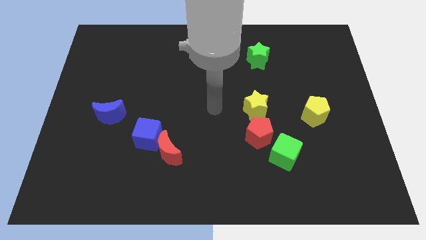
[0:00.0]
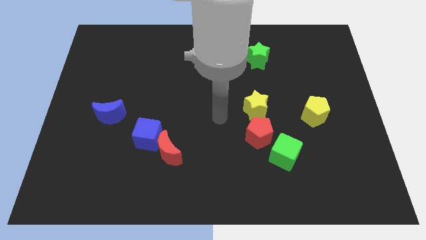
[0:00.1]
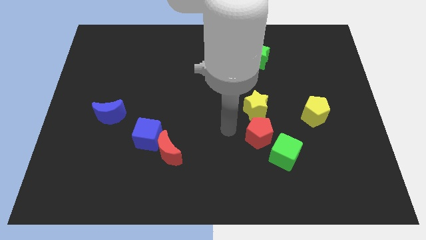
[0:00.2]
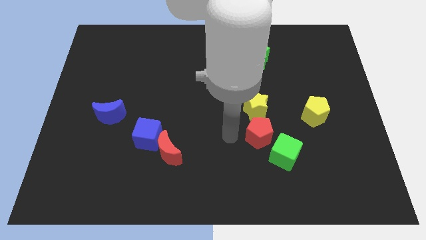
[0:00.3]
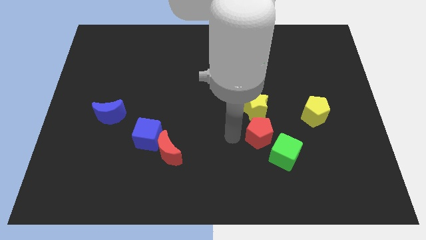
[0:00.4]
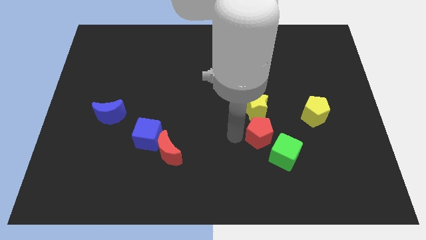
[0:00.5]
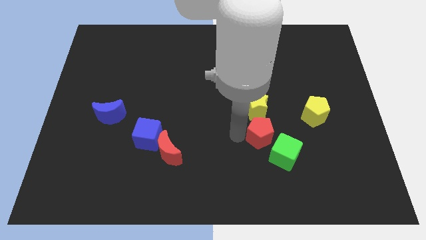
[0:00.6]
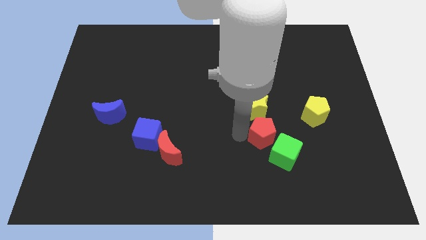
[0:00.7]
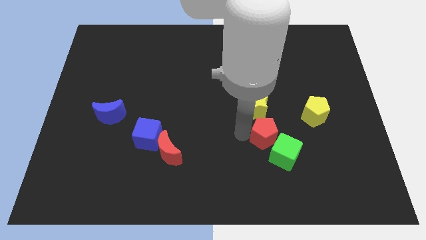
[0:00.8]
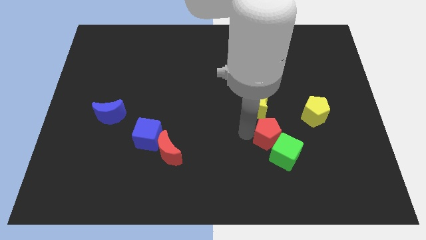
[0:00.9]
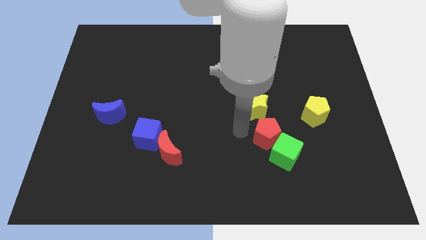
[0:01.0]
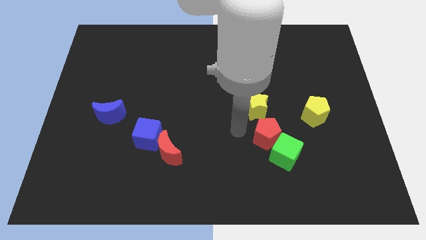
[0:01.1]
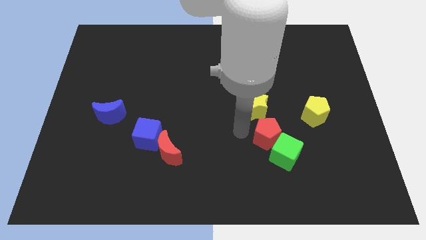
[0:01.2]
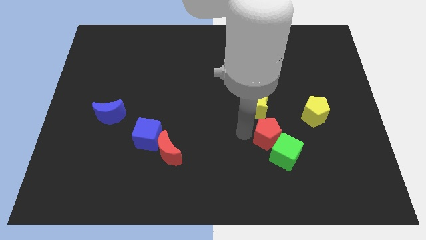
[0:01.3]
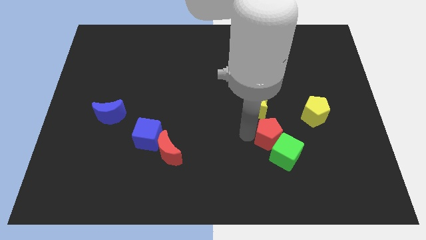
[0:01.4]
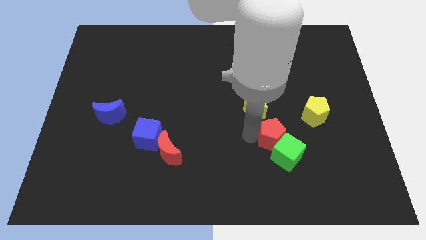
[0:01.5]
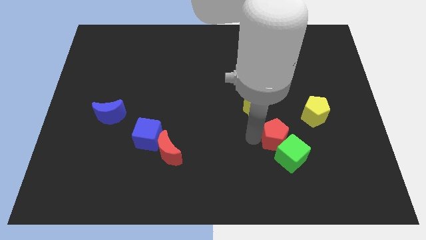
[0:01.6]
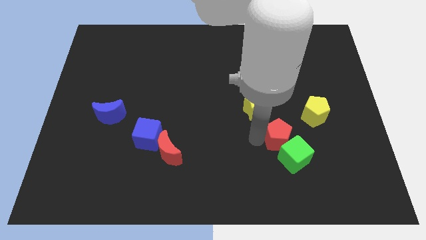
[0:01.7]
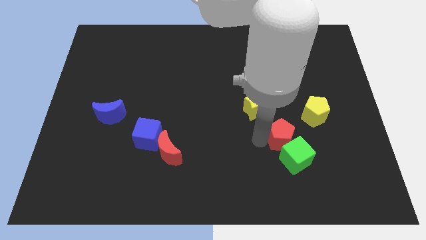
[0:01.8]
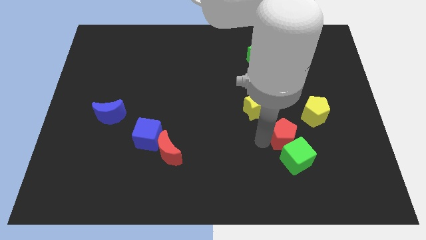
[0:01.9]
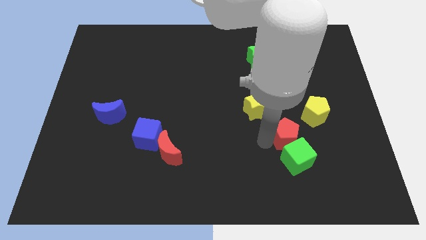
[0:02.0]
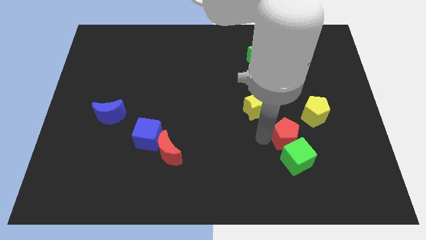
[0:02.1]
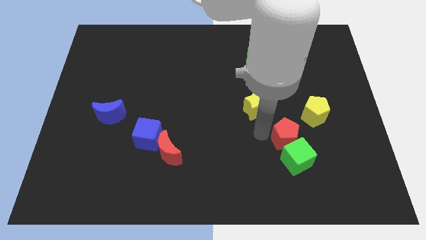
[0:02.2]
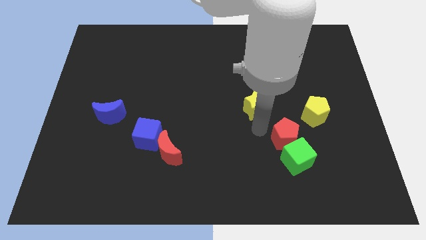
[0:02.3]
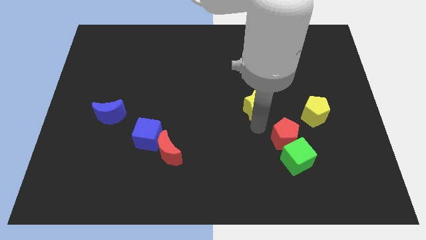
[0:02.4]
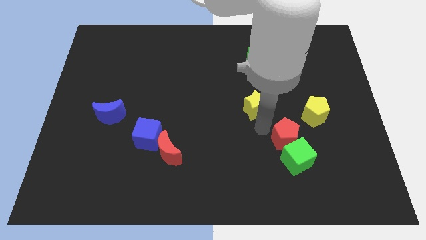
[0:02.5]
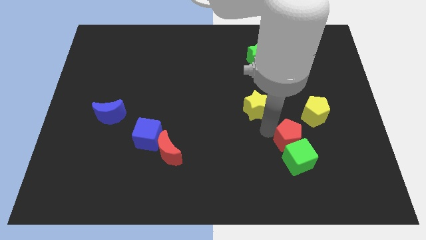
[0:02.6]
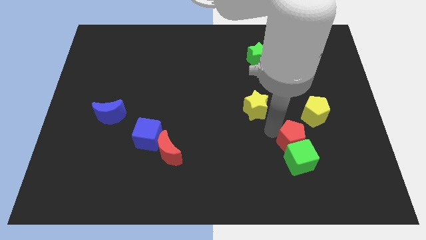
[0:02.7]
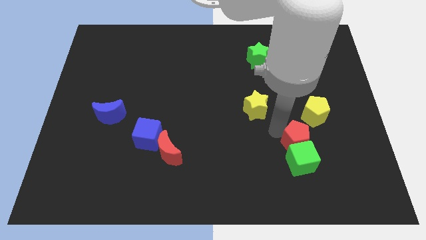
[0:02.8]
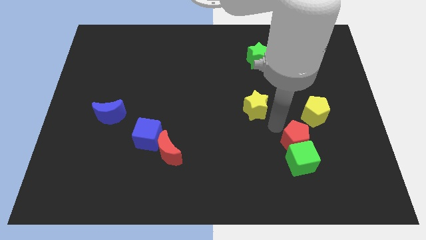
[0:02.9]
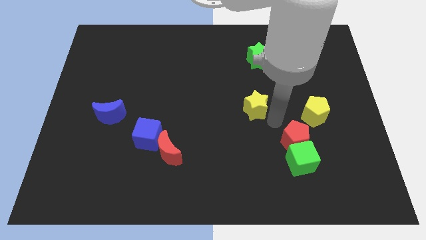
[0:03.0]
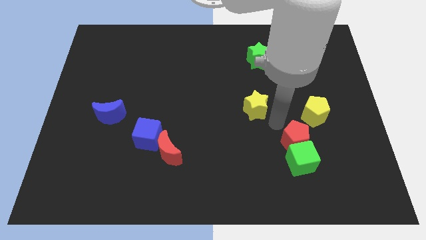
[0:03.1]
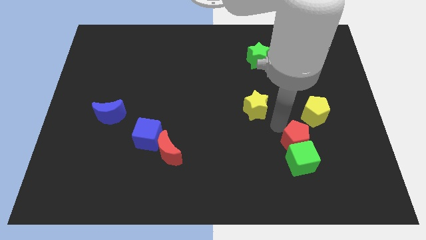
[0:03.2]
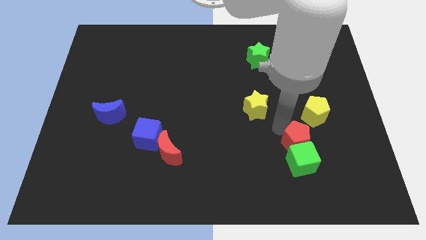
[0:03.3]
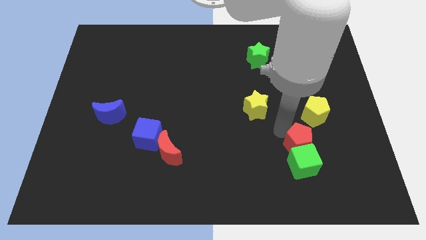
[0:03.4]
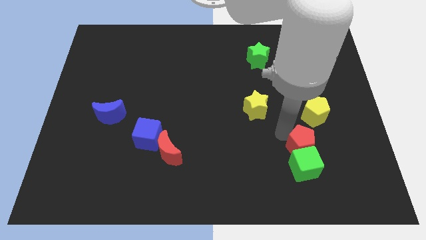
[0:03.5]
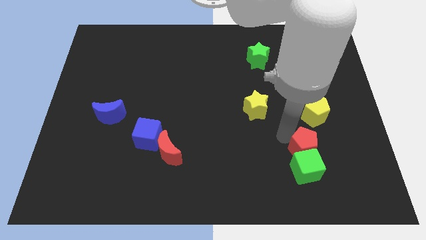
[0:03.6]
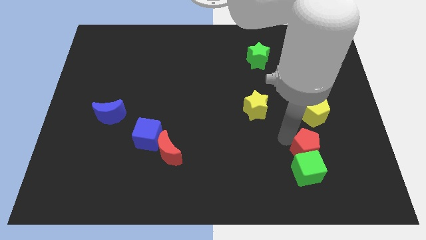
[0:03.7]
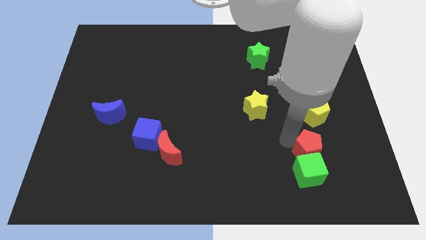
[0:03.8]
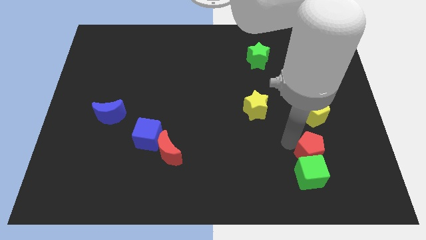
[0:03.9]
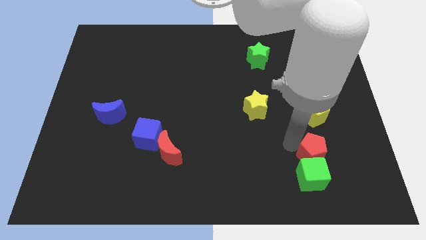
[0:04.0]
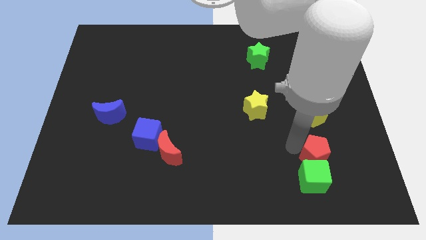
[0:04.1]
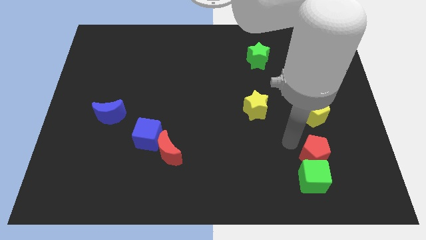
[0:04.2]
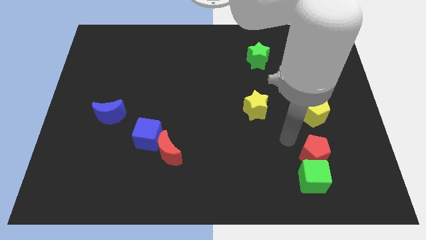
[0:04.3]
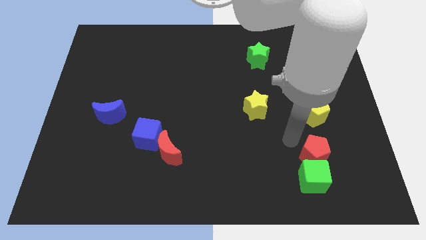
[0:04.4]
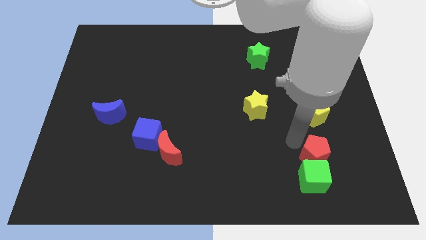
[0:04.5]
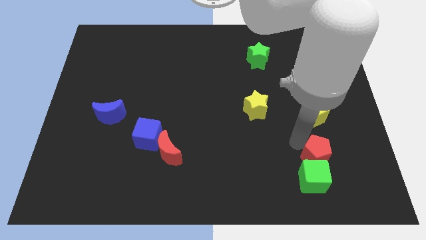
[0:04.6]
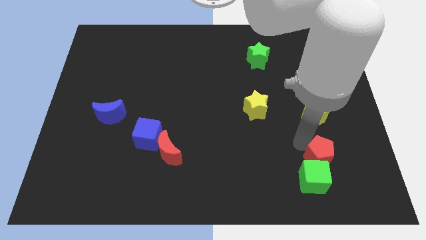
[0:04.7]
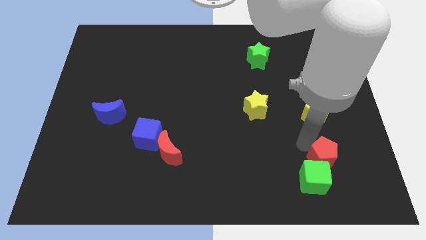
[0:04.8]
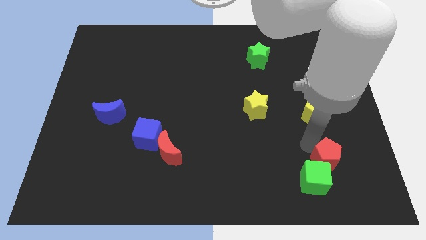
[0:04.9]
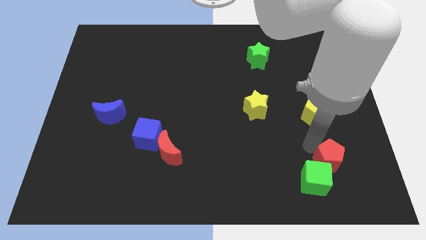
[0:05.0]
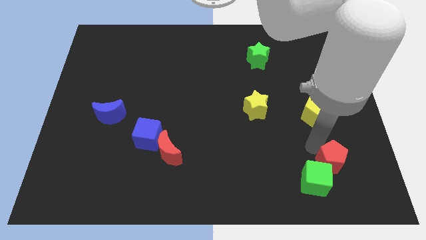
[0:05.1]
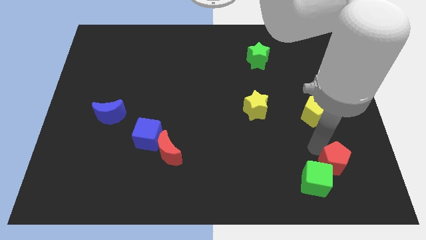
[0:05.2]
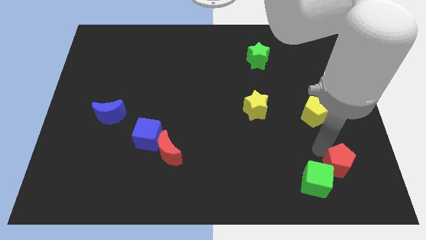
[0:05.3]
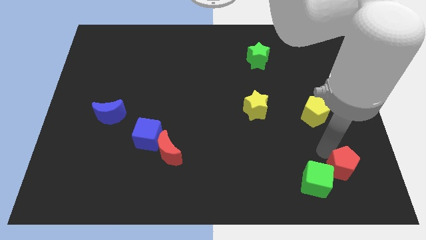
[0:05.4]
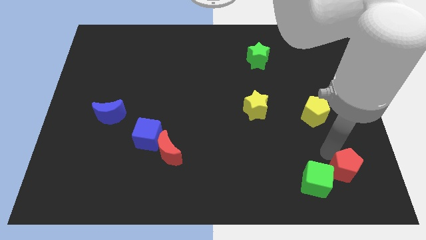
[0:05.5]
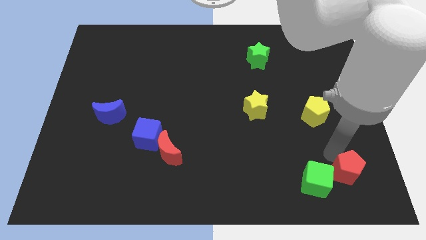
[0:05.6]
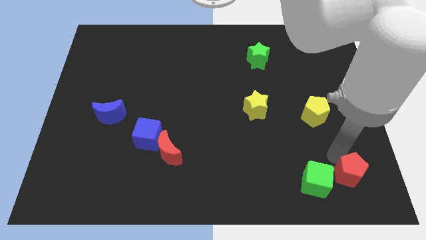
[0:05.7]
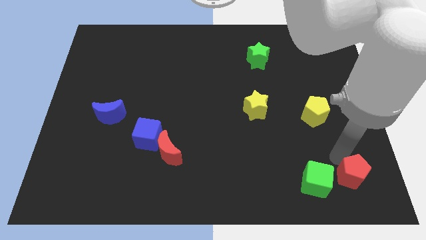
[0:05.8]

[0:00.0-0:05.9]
slide the red pentagon to the lower right corner
